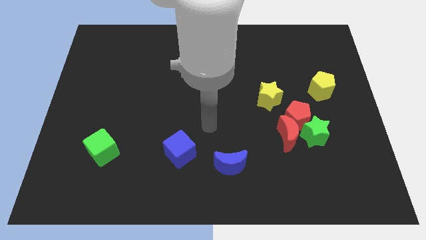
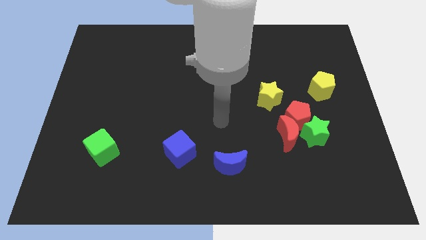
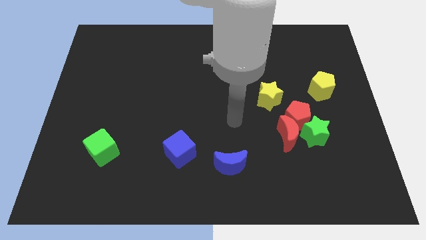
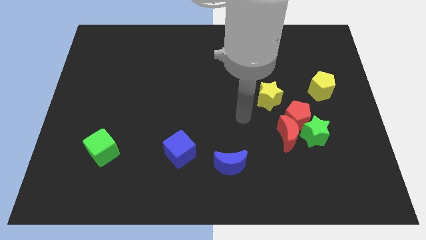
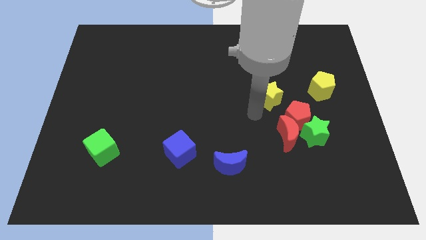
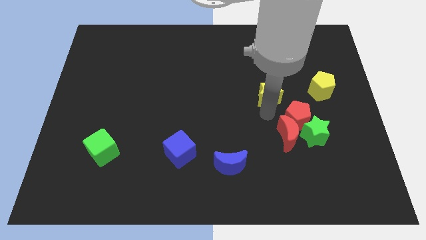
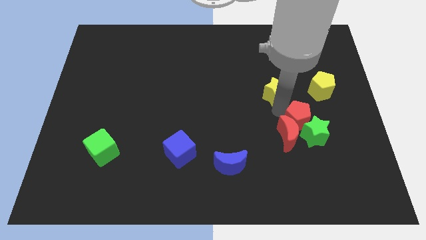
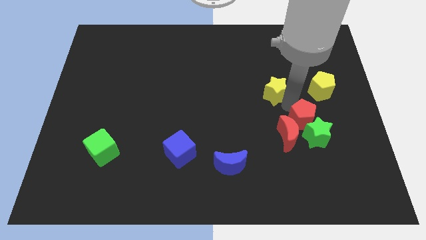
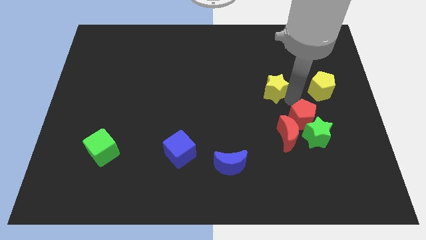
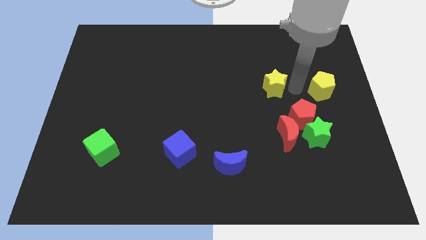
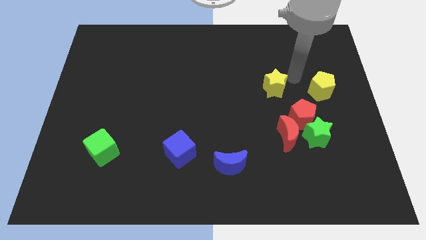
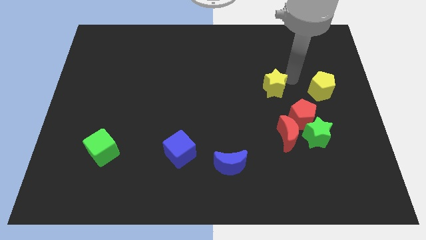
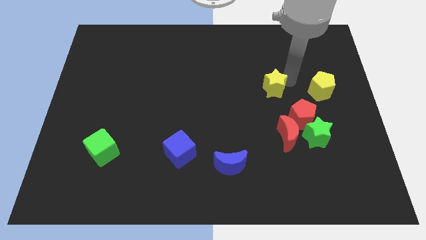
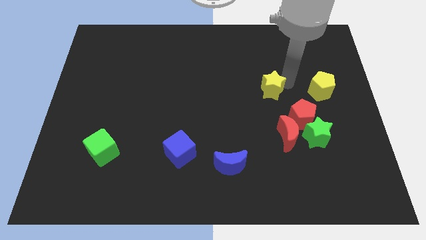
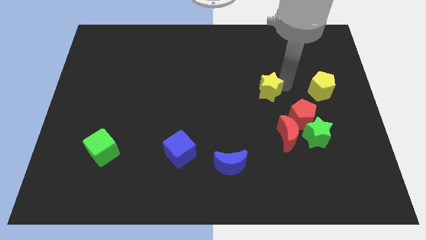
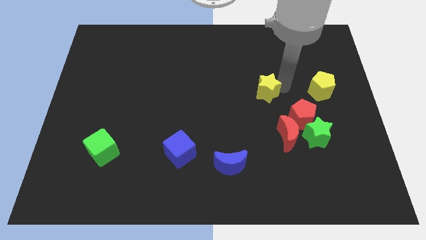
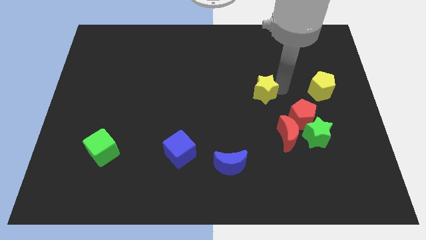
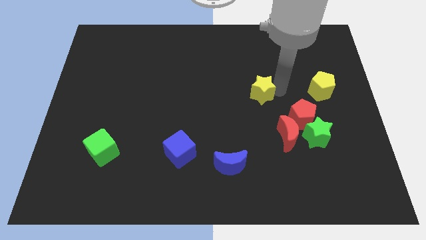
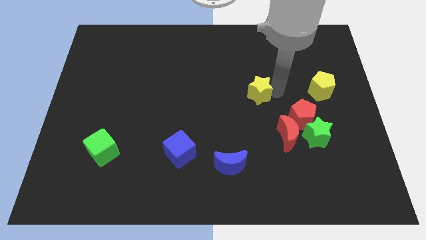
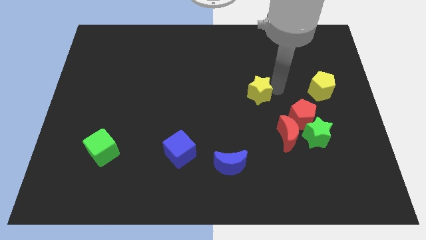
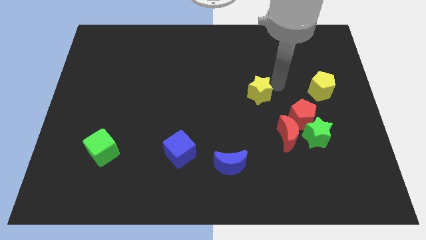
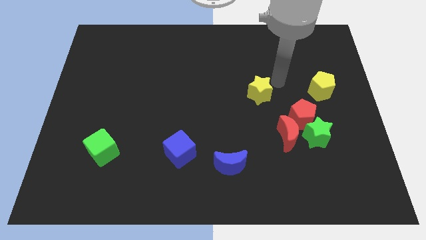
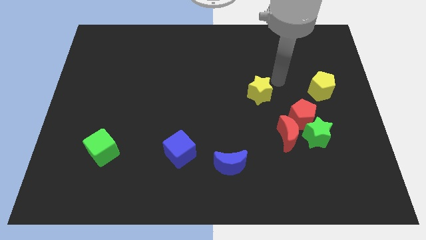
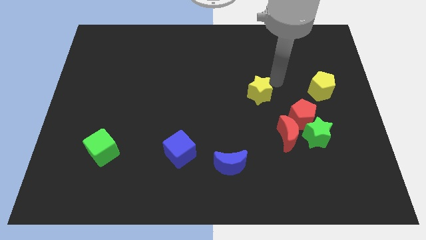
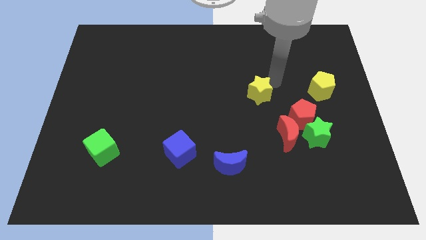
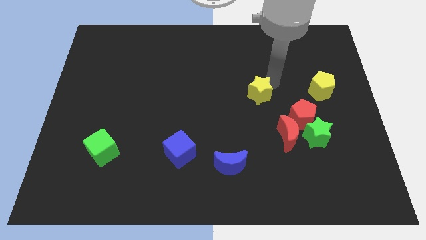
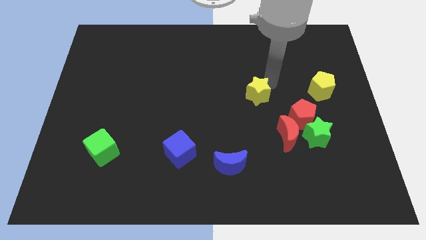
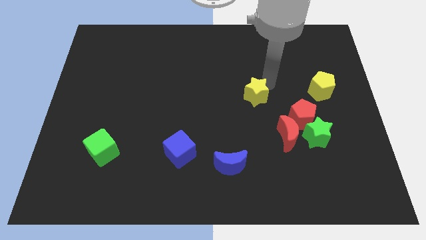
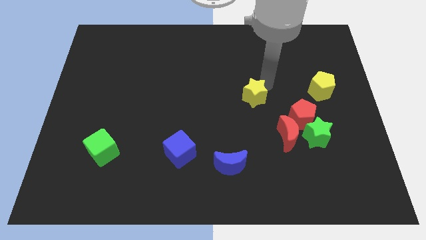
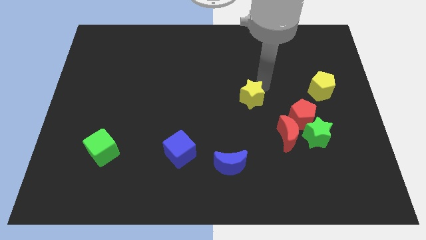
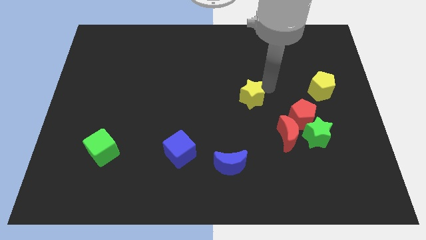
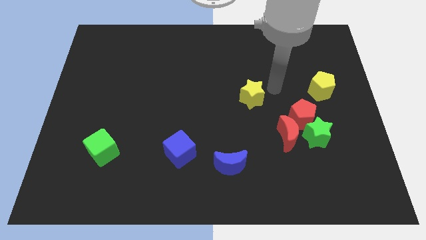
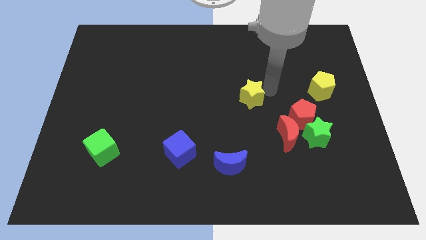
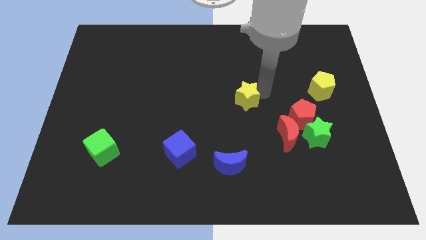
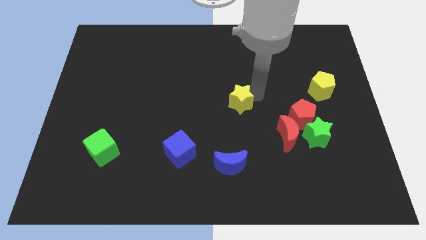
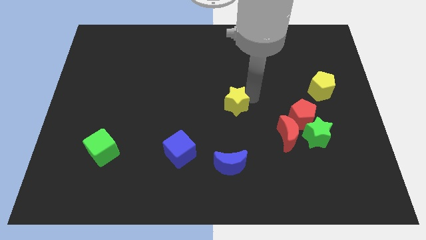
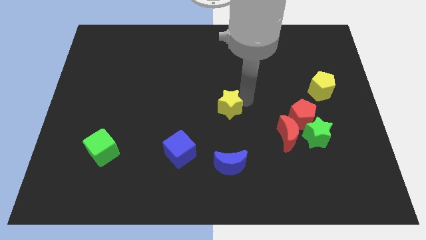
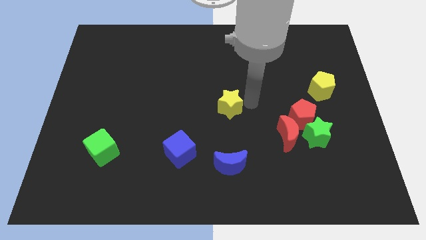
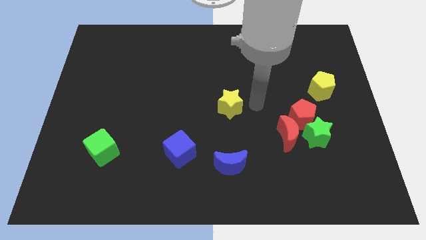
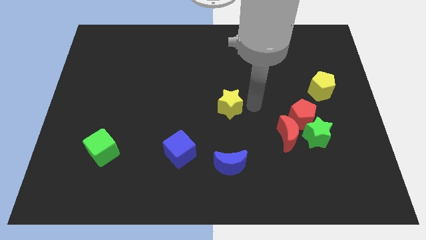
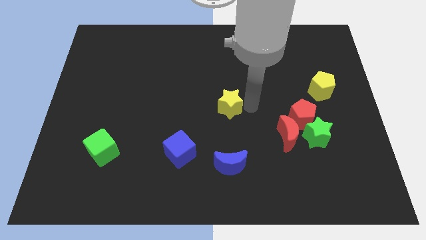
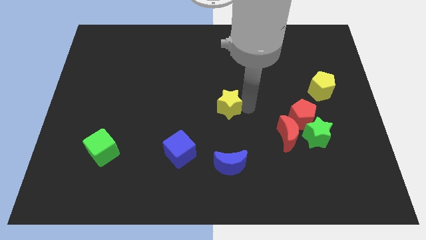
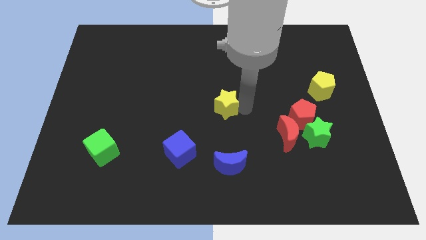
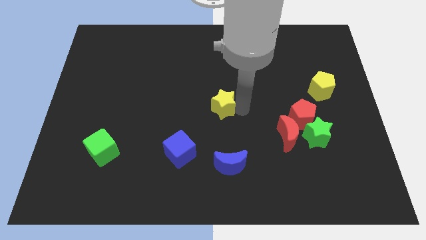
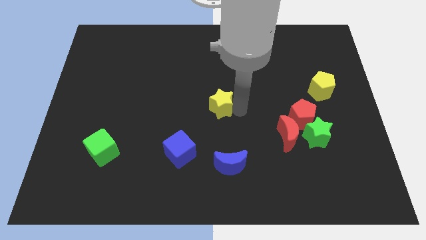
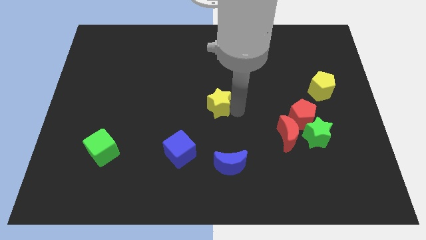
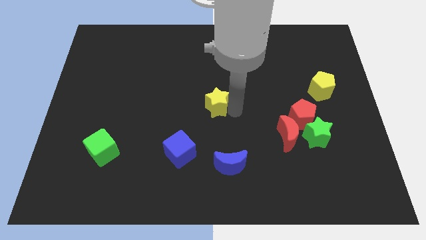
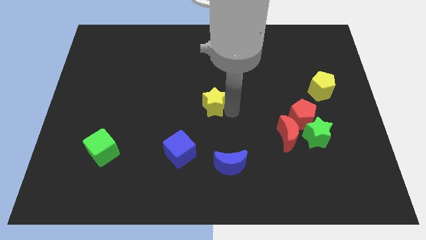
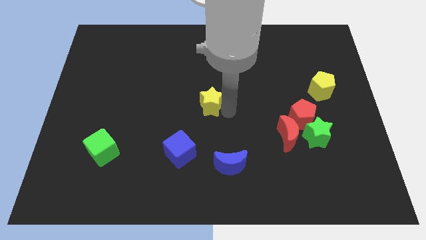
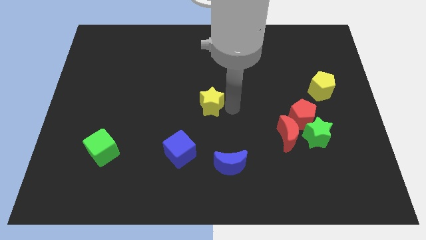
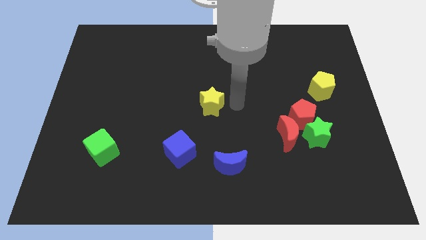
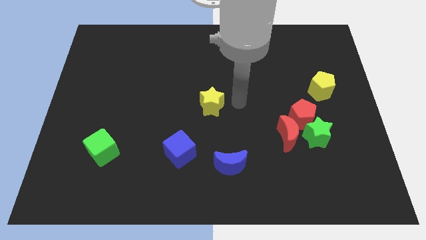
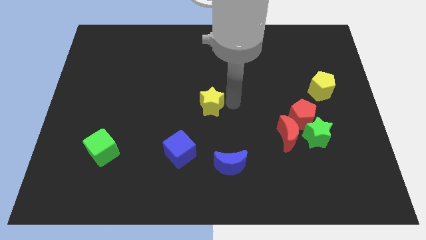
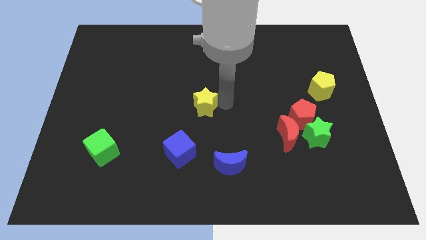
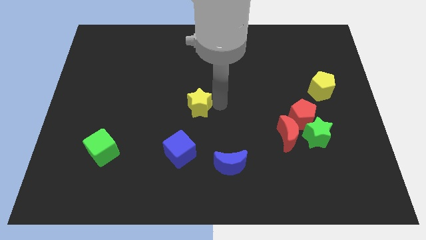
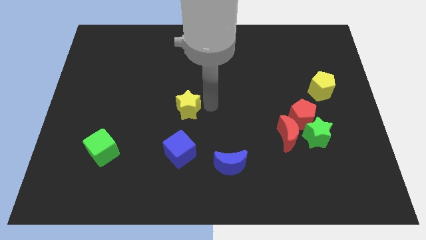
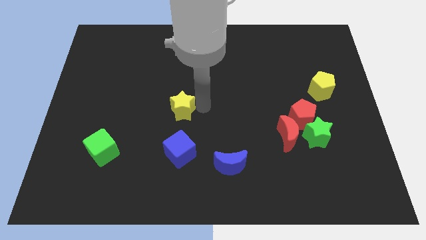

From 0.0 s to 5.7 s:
move the yellow star to the left

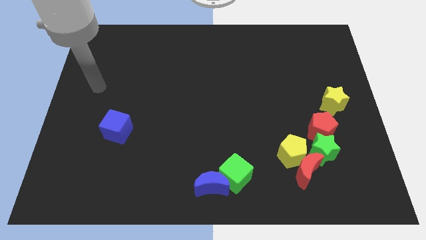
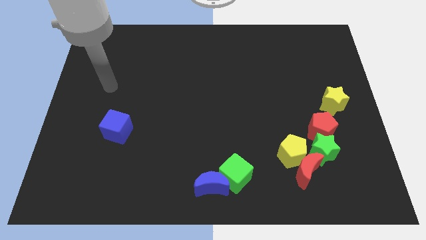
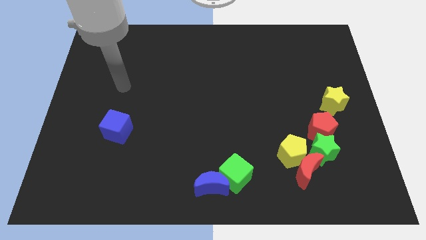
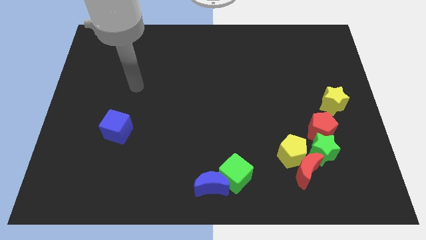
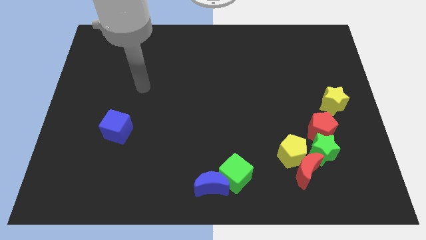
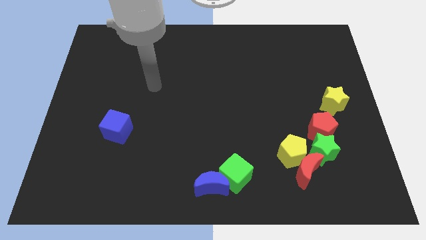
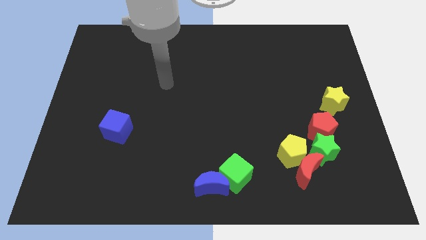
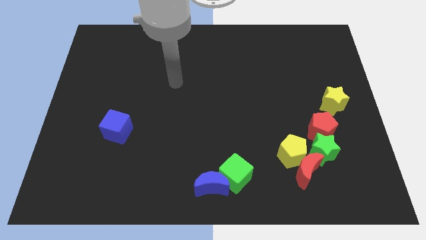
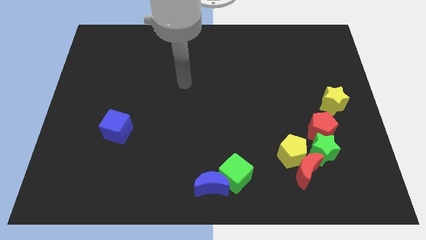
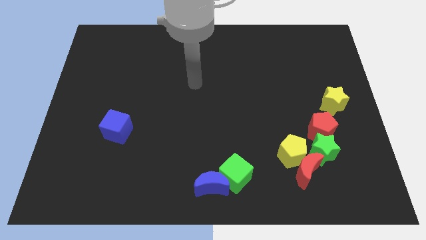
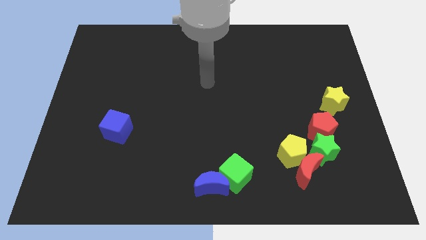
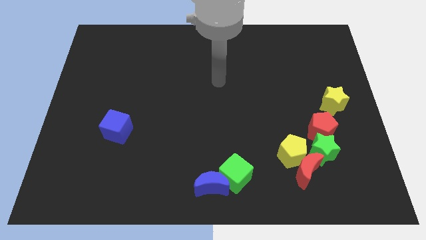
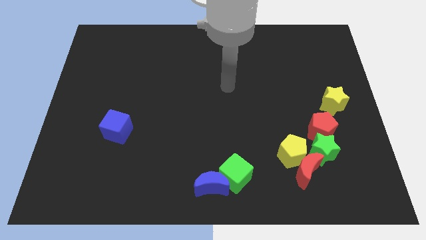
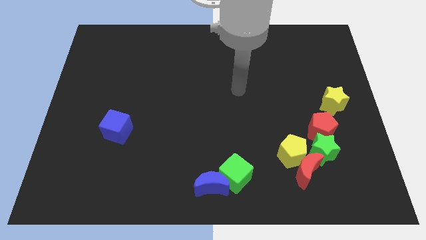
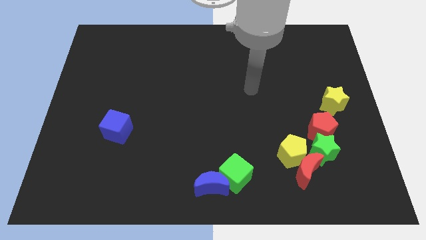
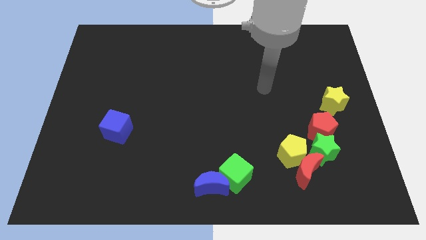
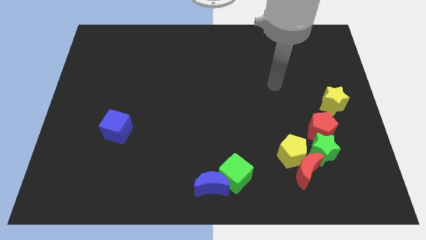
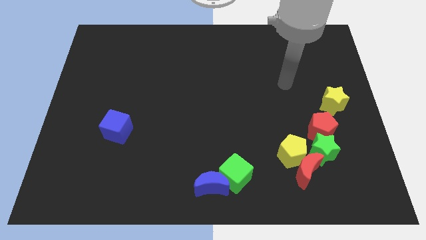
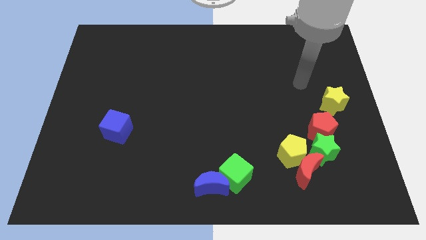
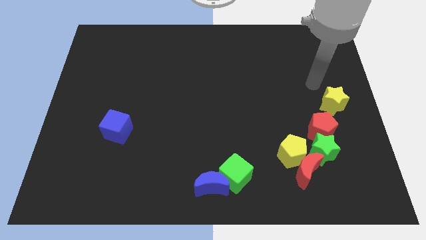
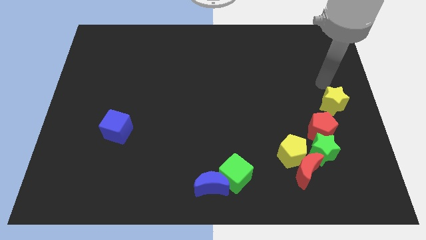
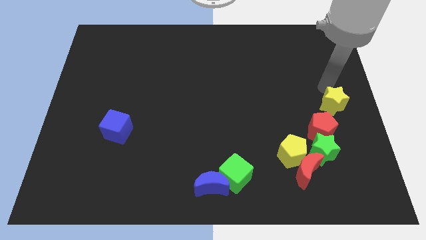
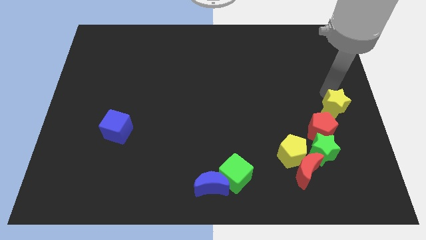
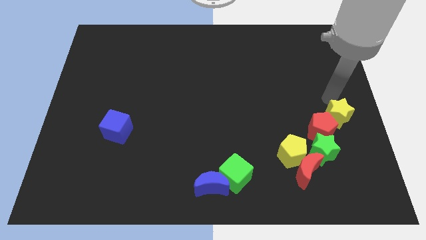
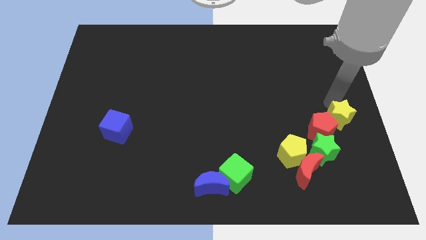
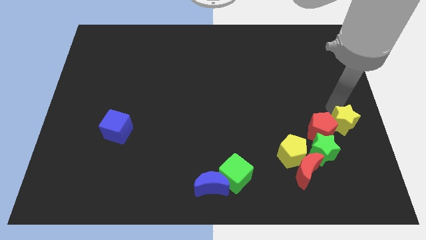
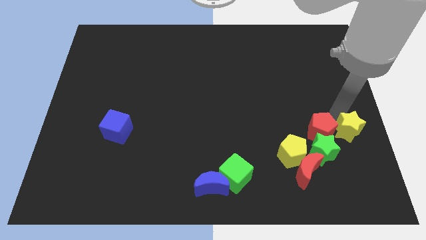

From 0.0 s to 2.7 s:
slide the yellow star a bit downwards
